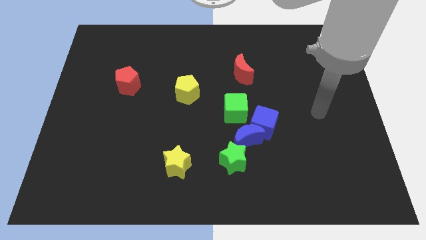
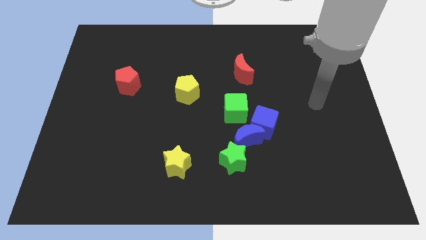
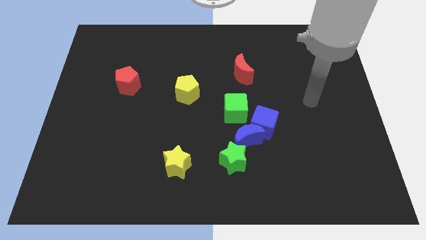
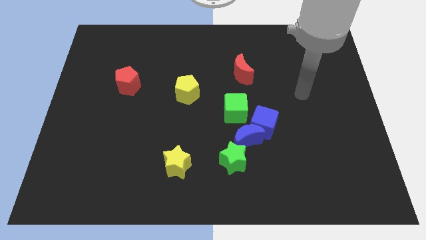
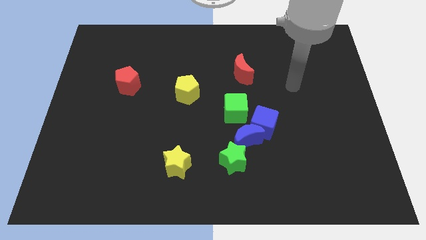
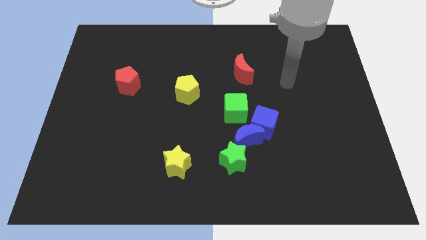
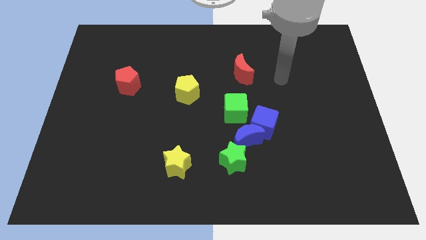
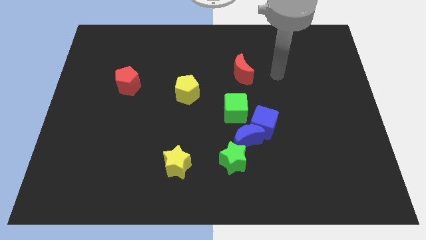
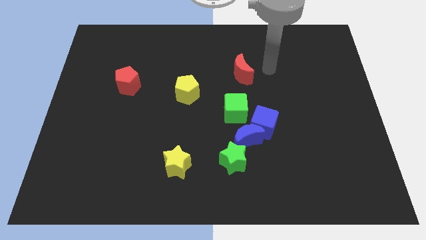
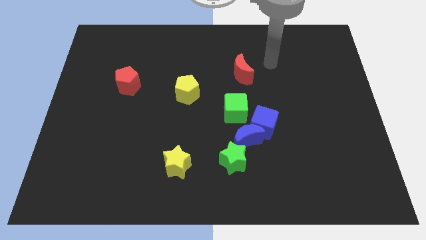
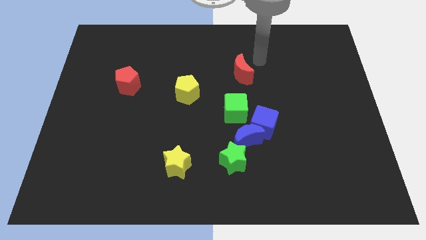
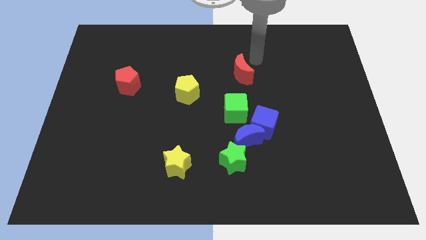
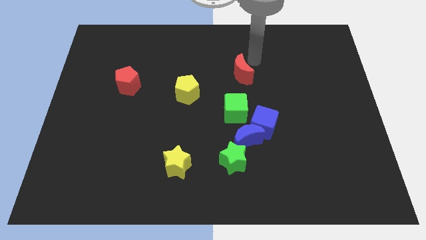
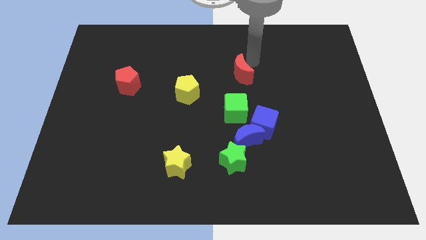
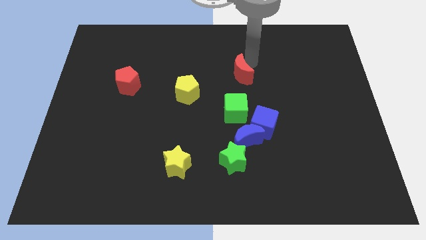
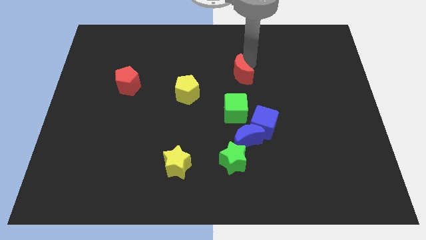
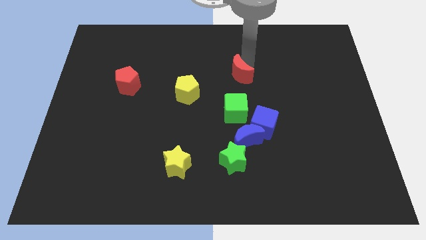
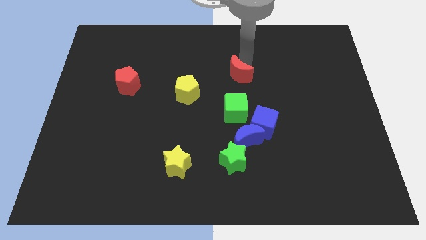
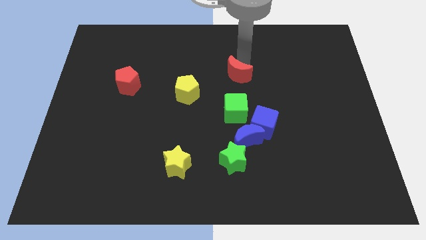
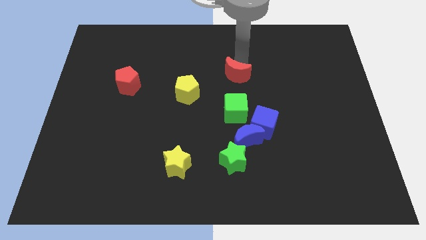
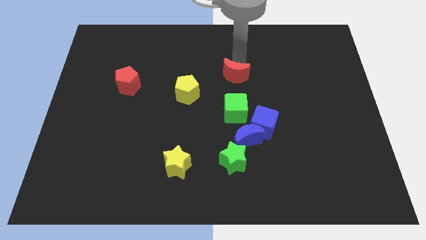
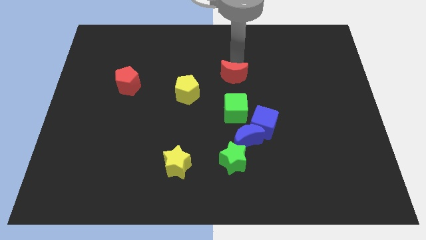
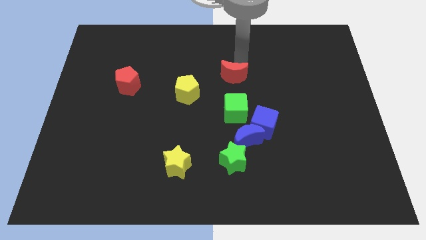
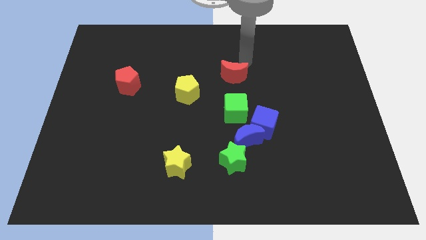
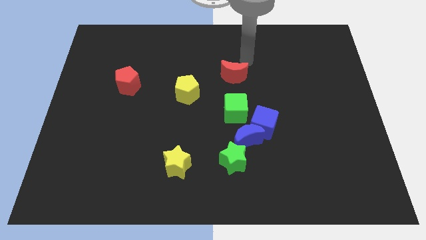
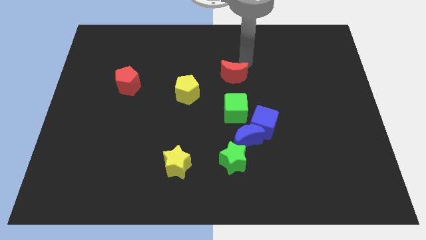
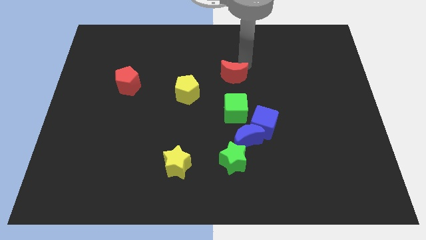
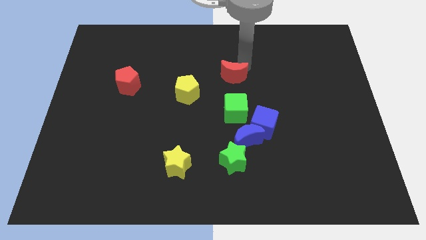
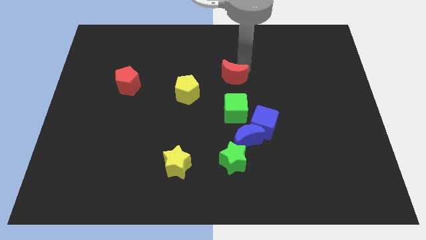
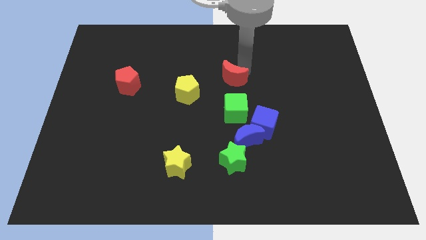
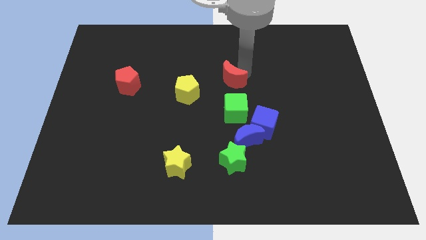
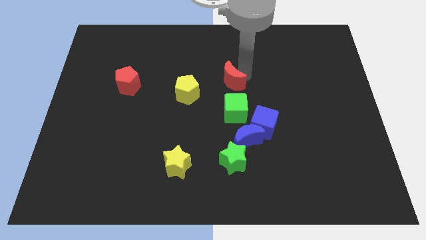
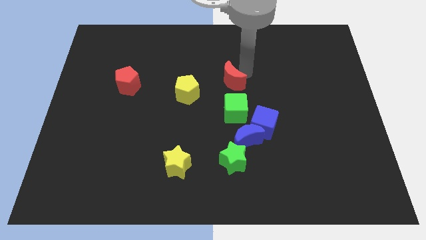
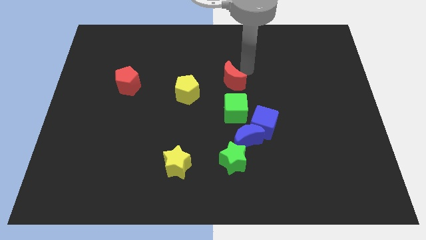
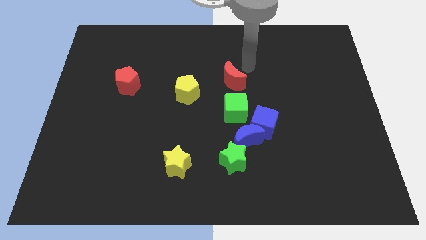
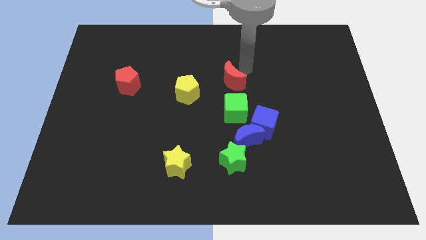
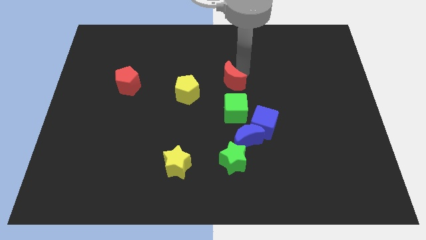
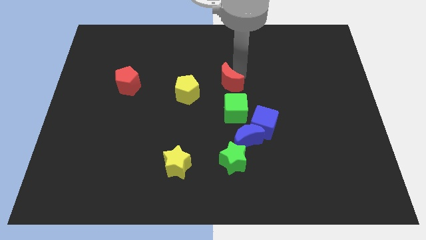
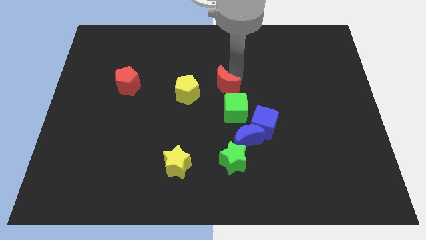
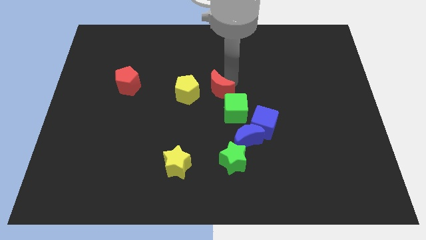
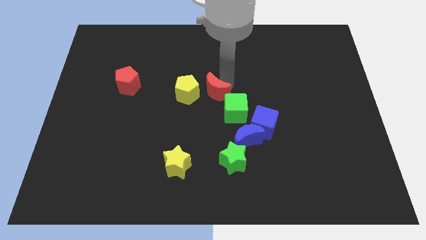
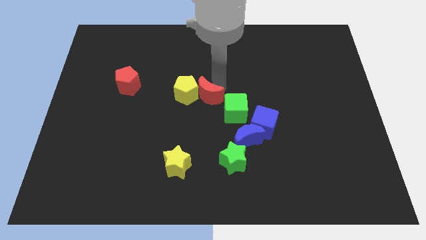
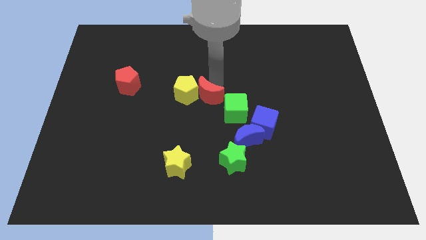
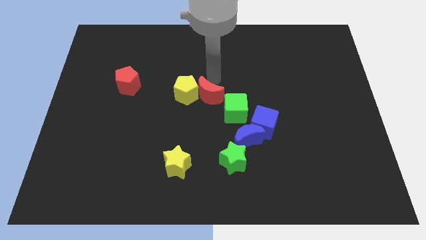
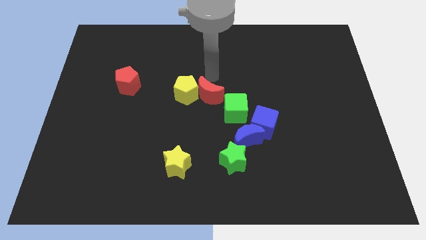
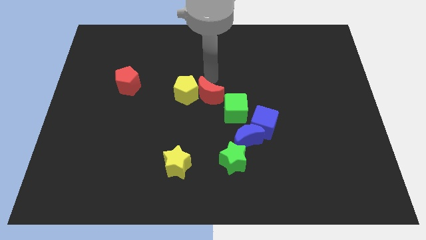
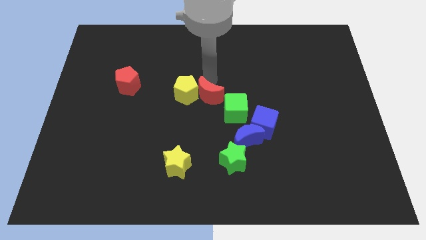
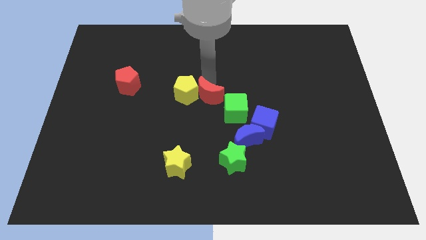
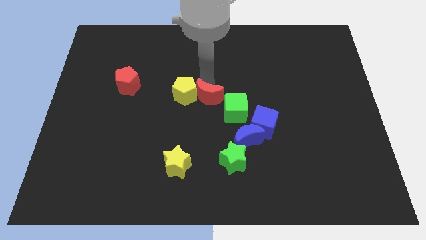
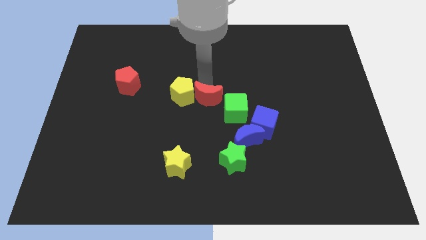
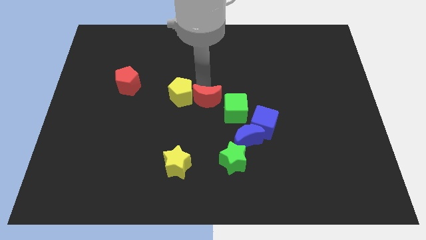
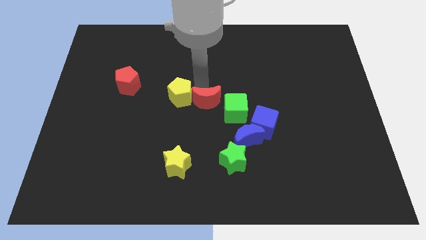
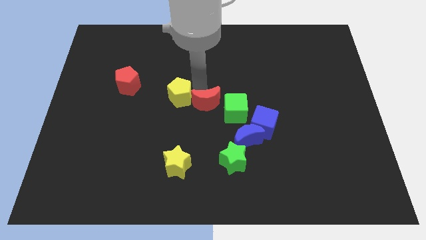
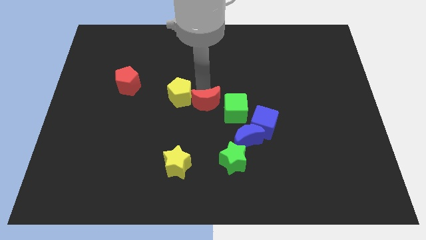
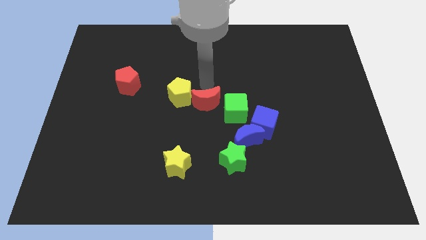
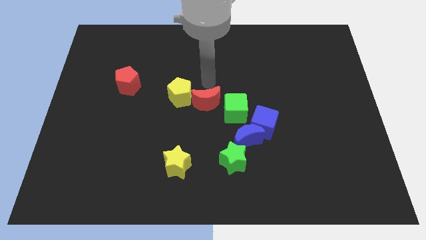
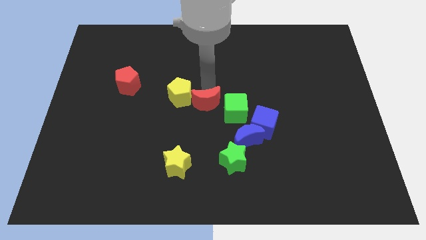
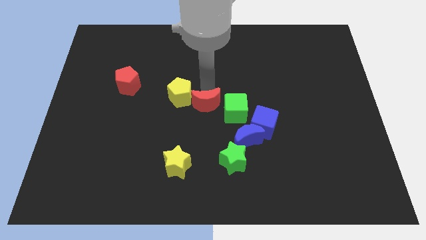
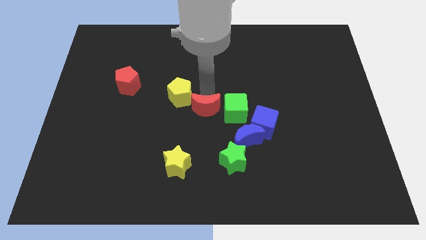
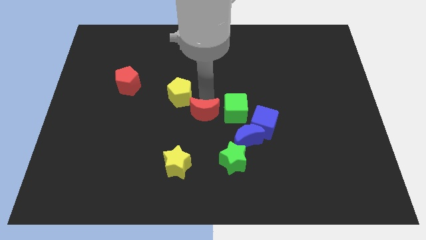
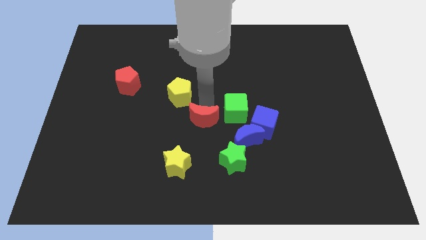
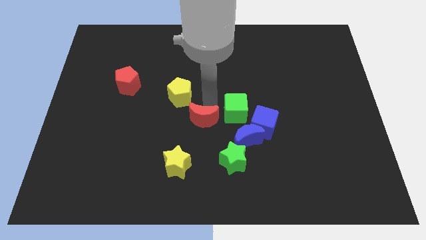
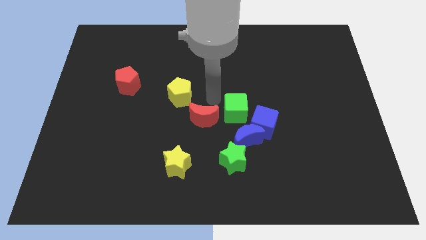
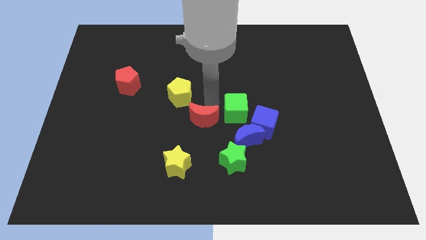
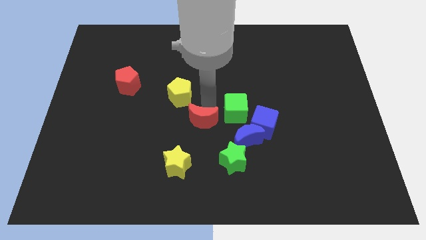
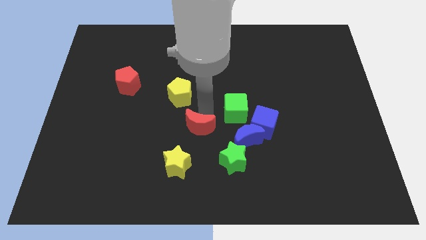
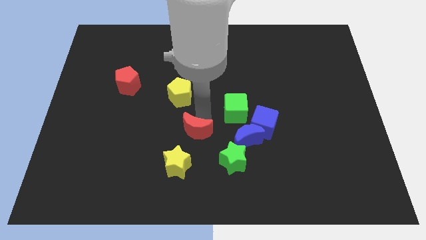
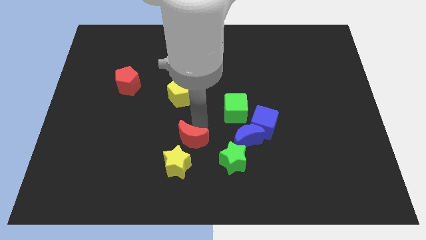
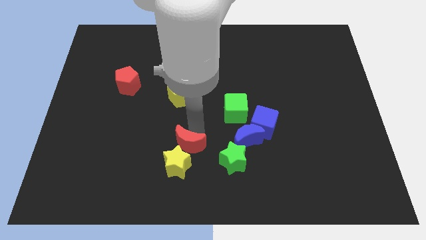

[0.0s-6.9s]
push the red moon next to the yellow star
